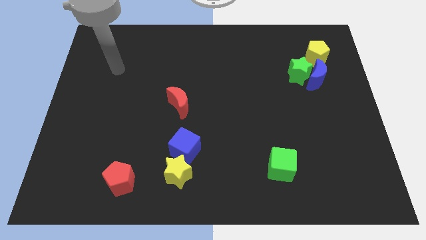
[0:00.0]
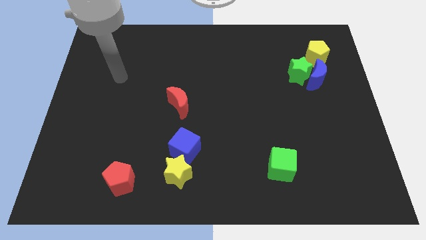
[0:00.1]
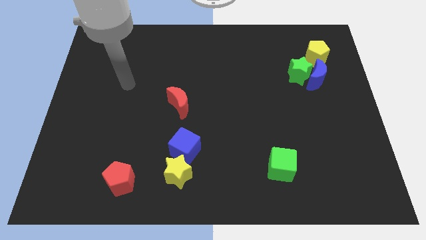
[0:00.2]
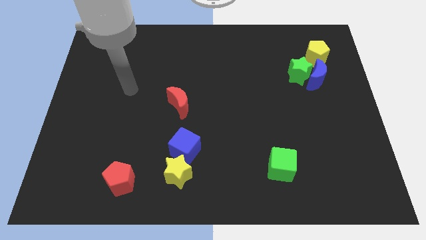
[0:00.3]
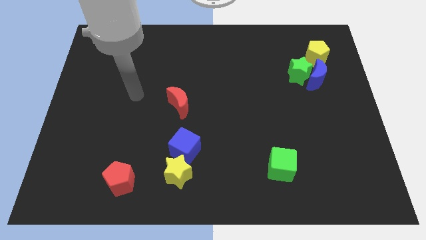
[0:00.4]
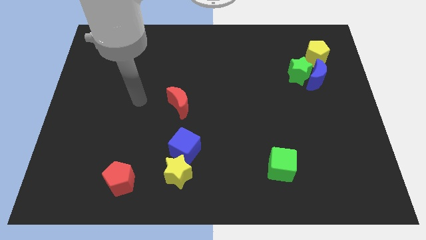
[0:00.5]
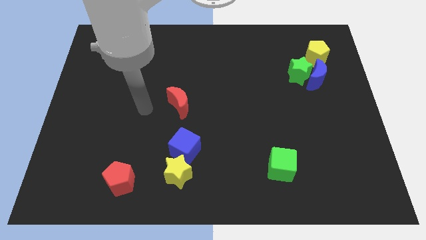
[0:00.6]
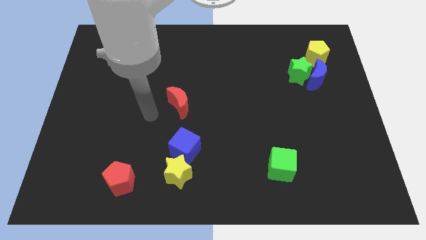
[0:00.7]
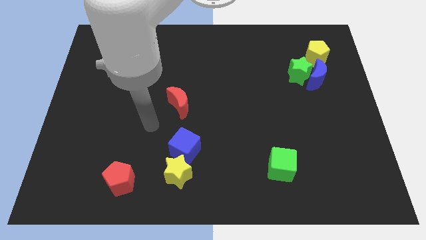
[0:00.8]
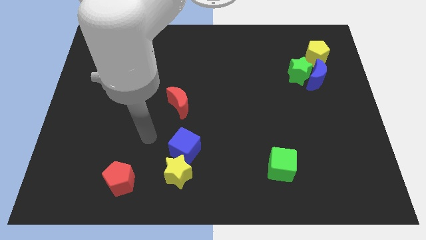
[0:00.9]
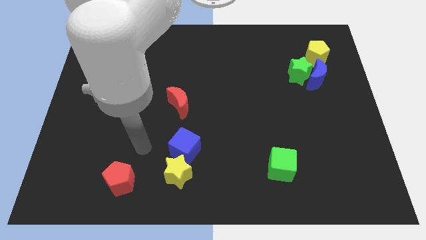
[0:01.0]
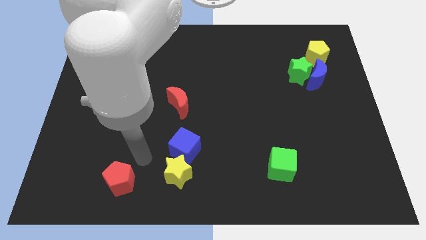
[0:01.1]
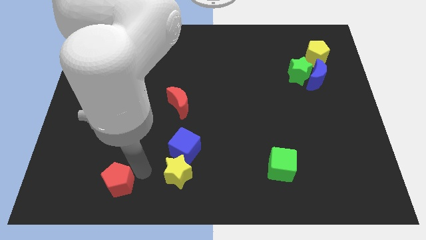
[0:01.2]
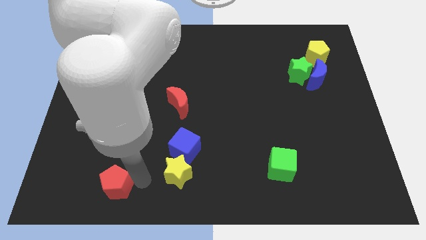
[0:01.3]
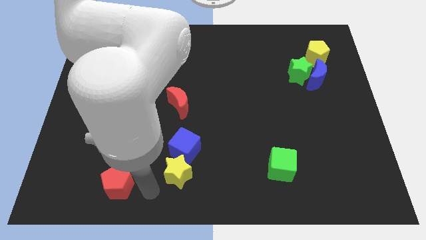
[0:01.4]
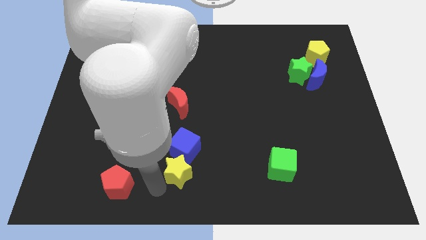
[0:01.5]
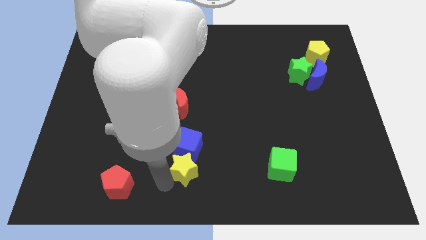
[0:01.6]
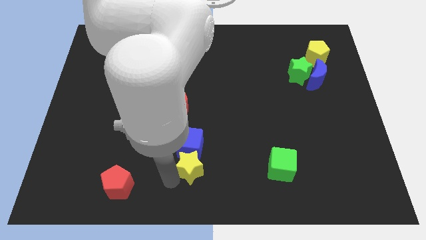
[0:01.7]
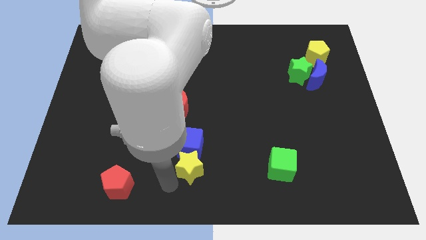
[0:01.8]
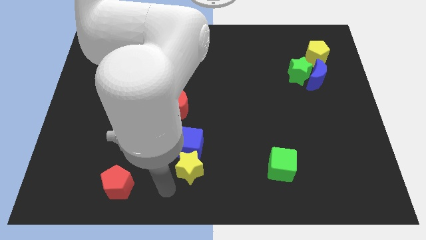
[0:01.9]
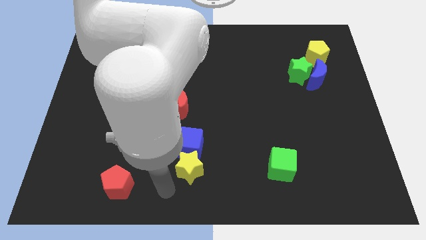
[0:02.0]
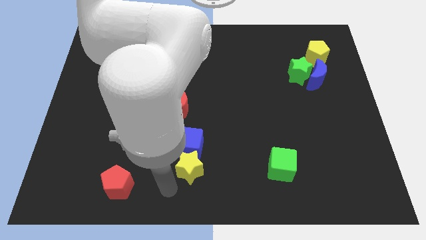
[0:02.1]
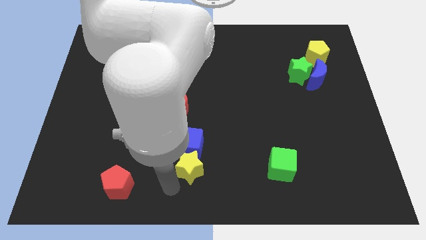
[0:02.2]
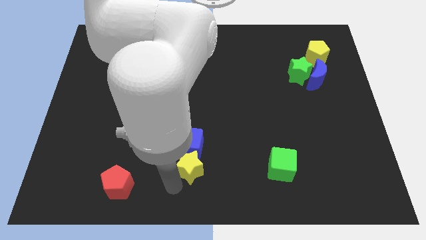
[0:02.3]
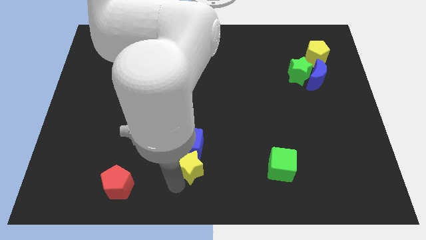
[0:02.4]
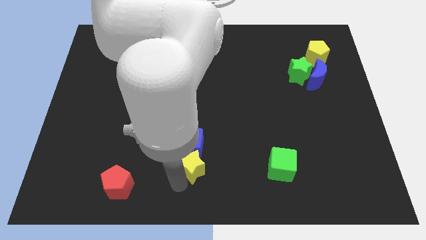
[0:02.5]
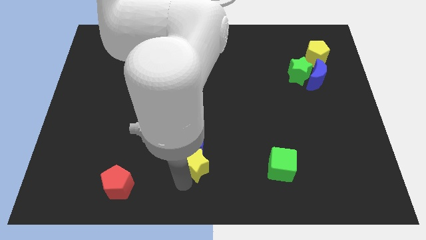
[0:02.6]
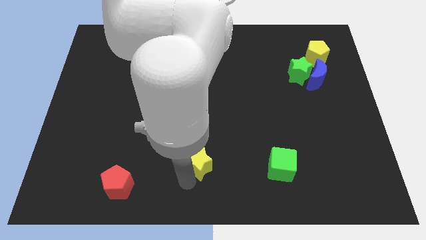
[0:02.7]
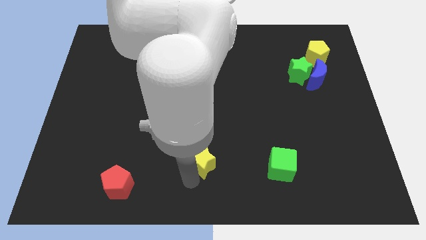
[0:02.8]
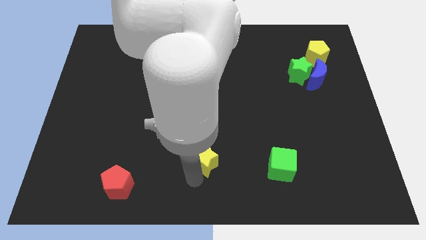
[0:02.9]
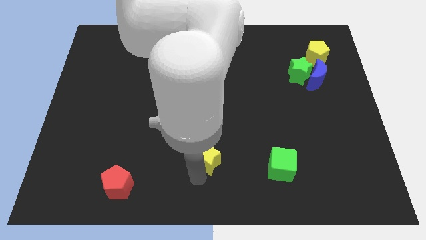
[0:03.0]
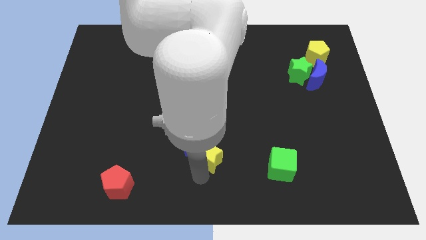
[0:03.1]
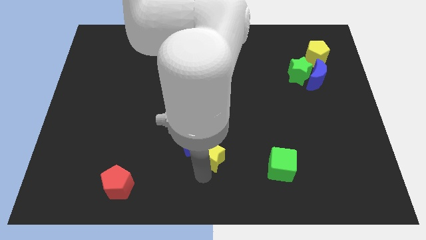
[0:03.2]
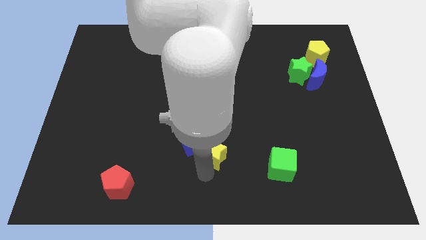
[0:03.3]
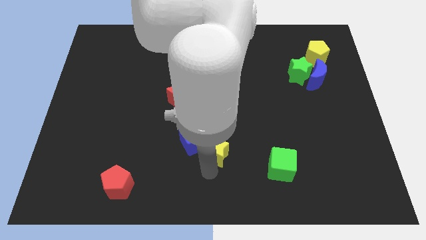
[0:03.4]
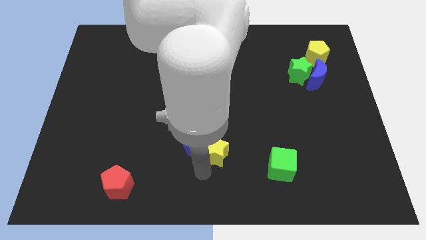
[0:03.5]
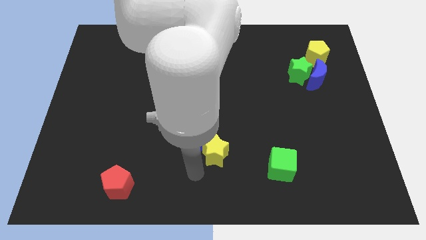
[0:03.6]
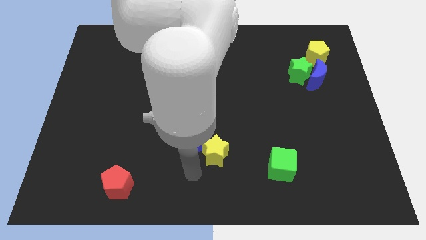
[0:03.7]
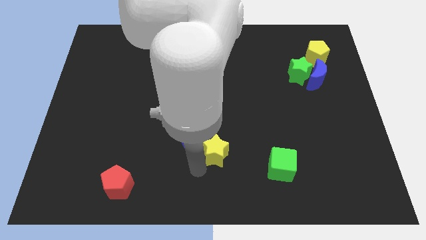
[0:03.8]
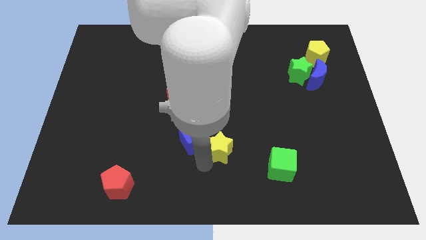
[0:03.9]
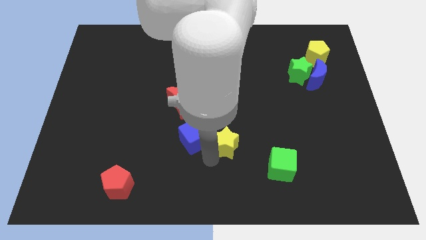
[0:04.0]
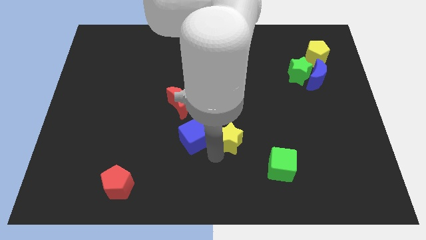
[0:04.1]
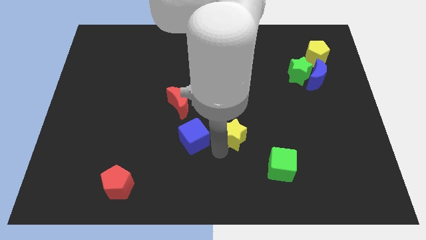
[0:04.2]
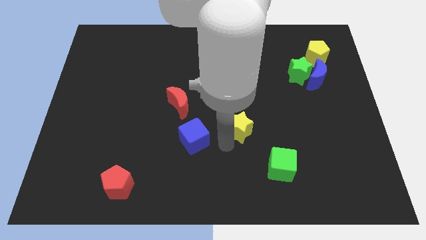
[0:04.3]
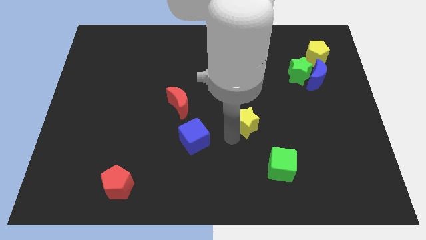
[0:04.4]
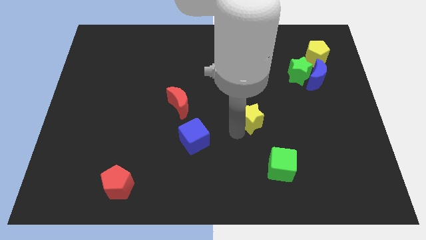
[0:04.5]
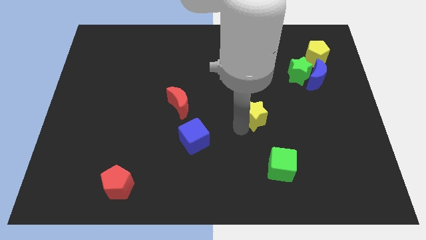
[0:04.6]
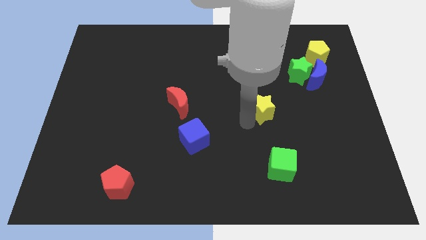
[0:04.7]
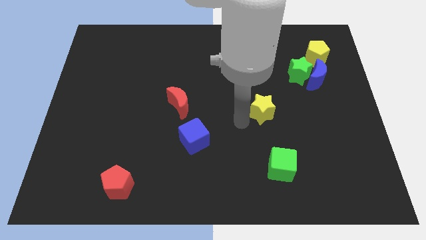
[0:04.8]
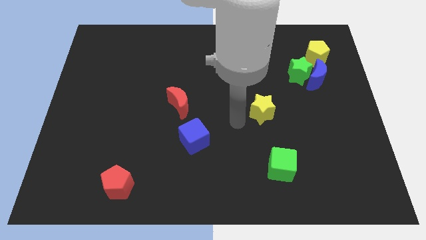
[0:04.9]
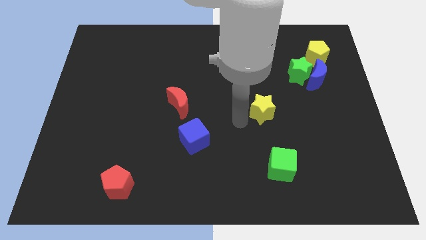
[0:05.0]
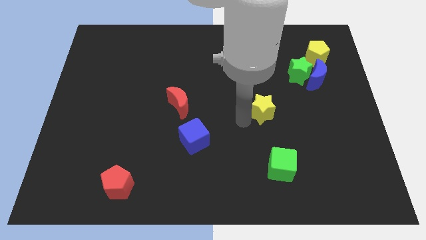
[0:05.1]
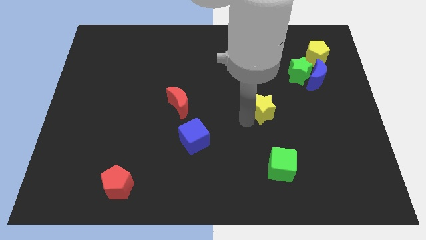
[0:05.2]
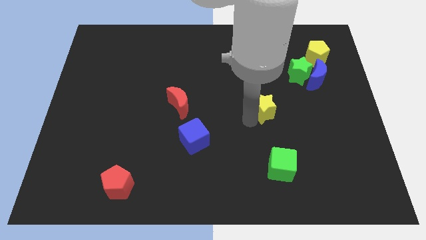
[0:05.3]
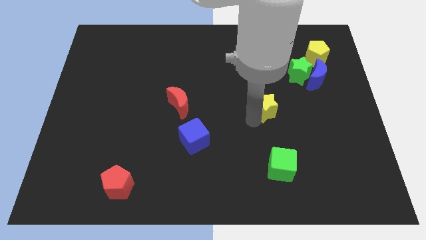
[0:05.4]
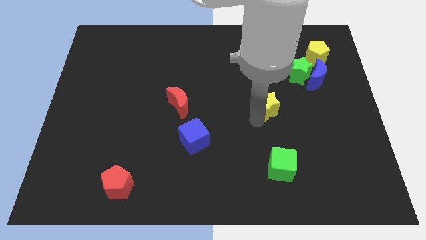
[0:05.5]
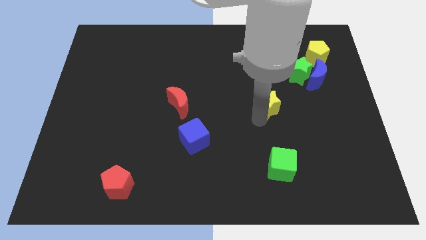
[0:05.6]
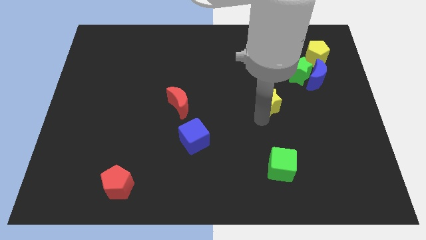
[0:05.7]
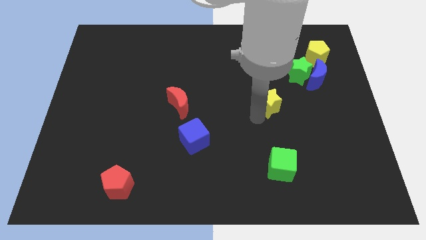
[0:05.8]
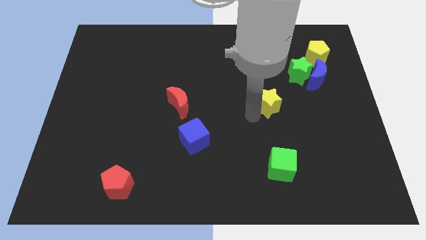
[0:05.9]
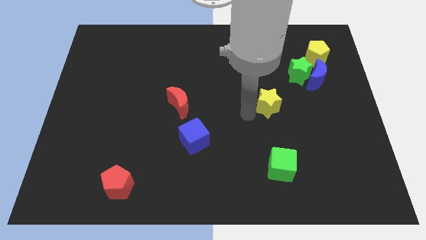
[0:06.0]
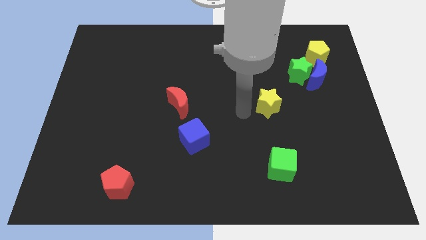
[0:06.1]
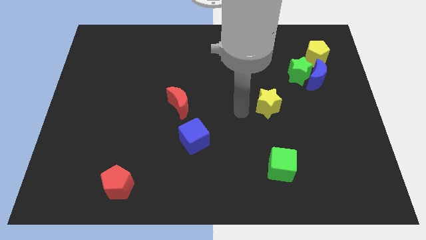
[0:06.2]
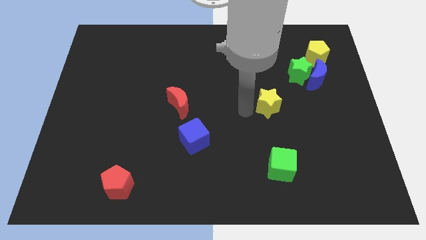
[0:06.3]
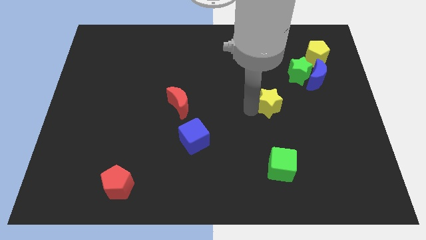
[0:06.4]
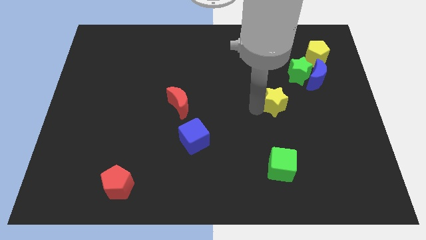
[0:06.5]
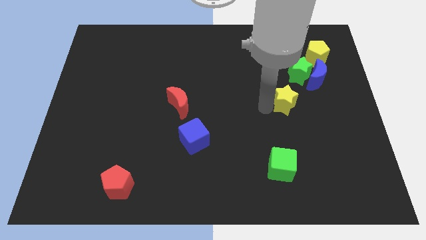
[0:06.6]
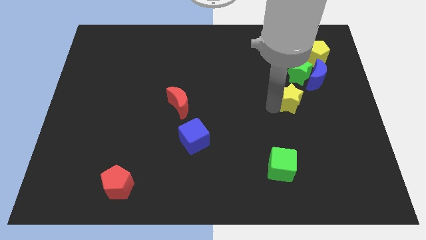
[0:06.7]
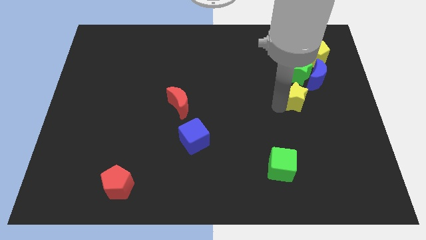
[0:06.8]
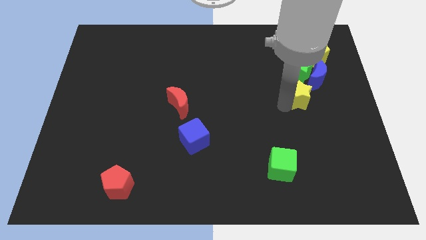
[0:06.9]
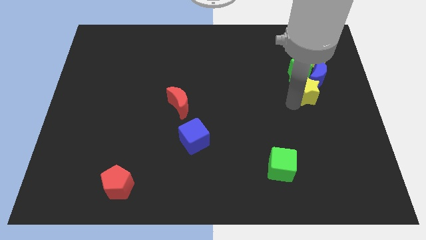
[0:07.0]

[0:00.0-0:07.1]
slide the yellow star towards the blue moon
